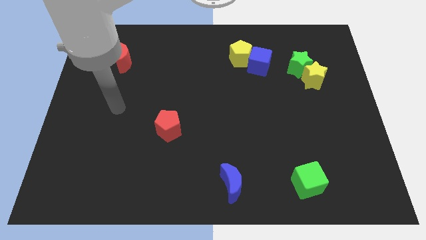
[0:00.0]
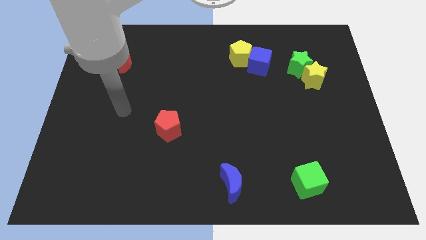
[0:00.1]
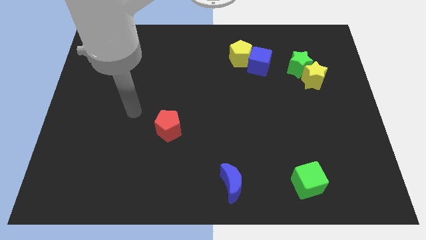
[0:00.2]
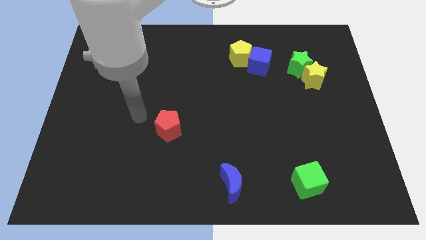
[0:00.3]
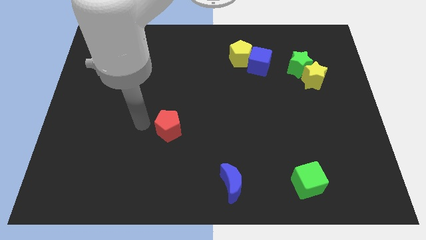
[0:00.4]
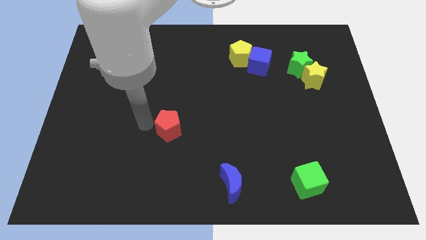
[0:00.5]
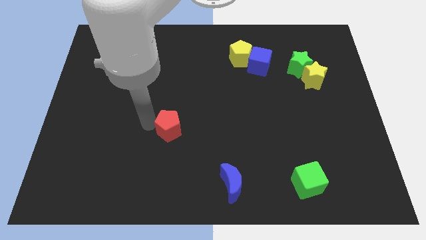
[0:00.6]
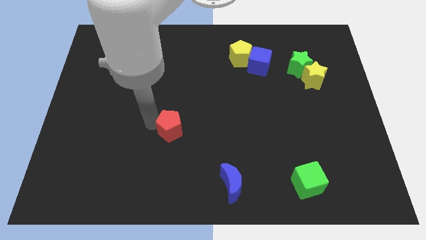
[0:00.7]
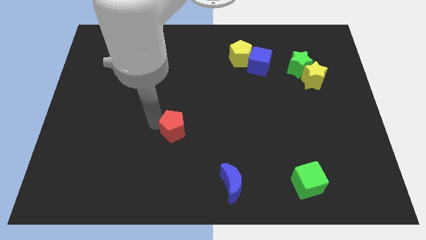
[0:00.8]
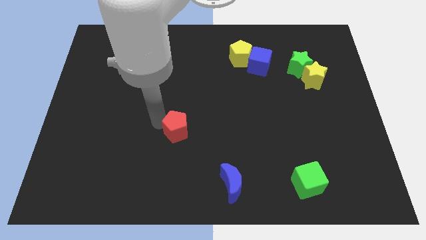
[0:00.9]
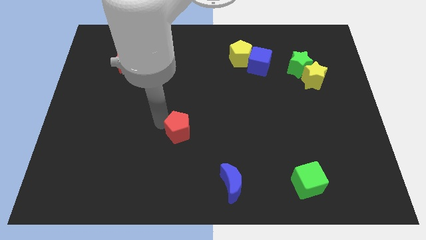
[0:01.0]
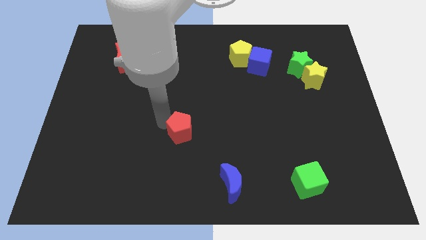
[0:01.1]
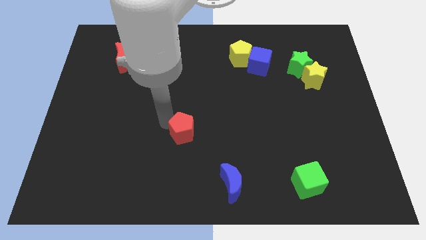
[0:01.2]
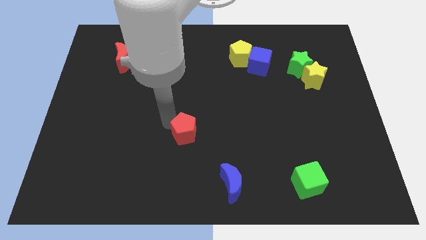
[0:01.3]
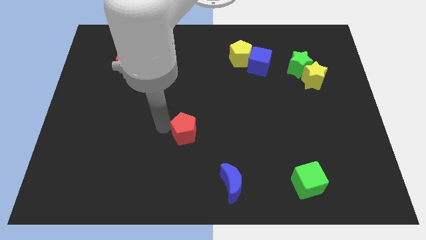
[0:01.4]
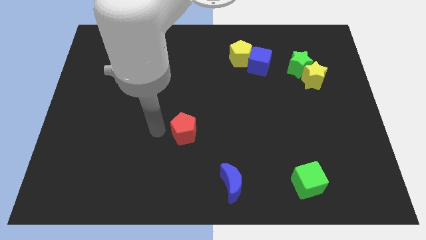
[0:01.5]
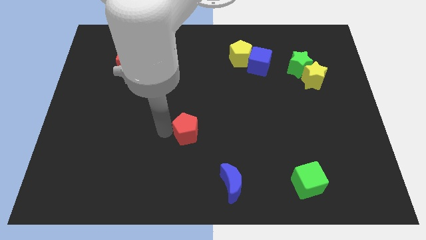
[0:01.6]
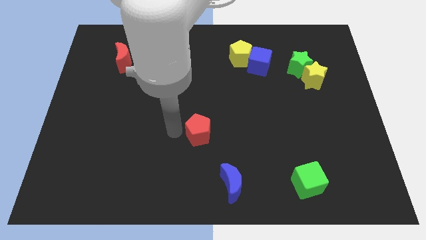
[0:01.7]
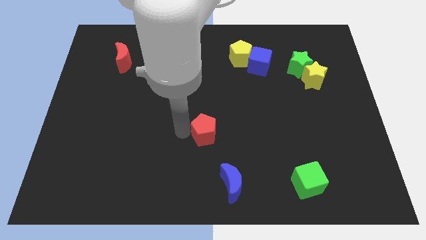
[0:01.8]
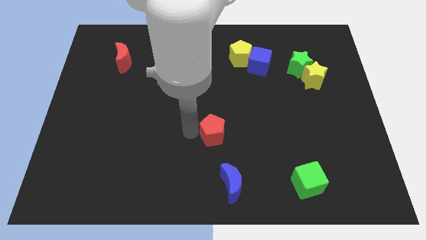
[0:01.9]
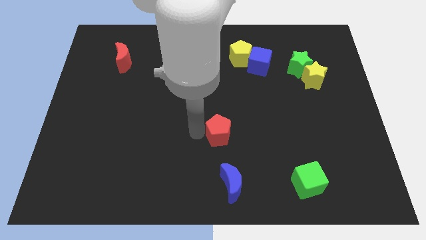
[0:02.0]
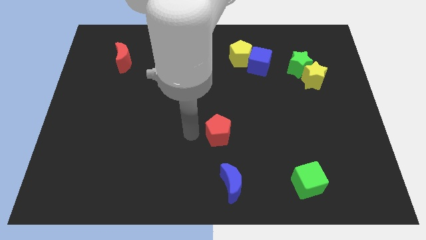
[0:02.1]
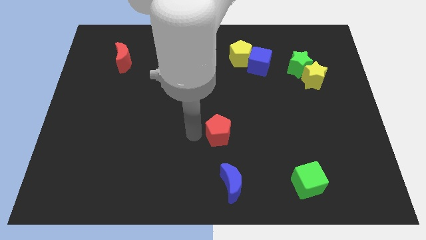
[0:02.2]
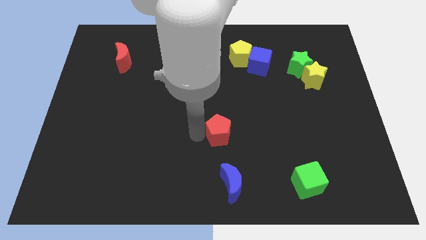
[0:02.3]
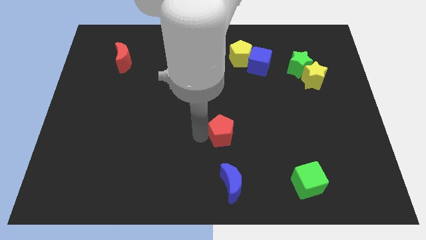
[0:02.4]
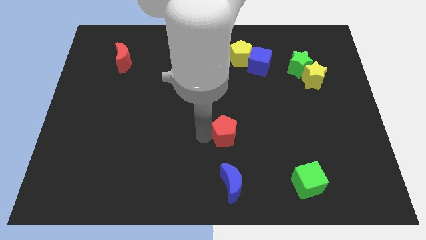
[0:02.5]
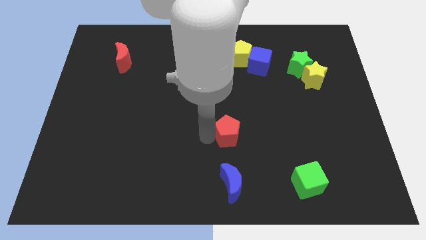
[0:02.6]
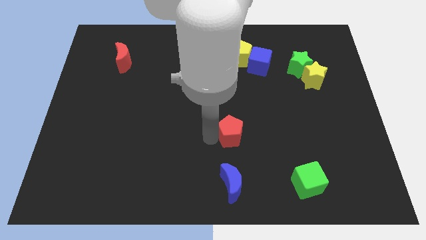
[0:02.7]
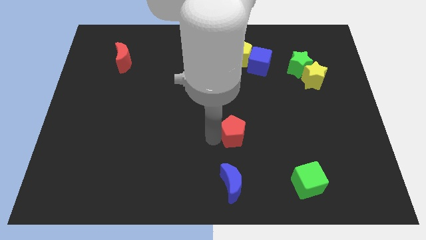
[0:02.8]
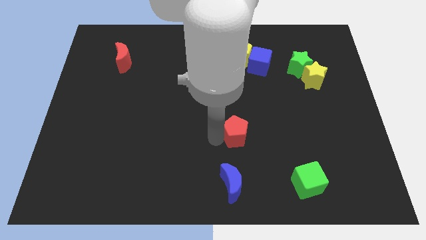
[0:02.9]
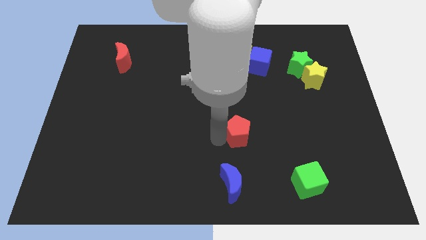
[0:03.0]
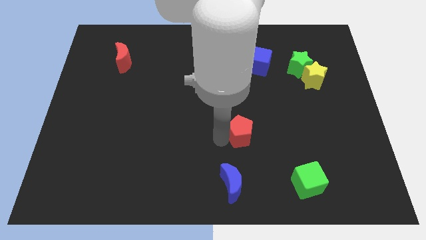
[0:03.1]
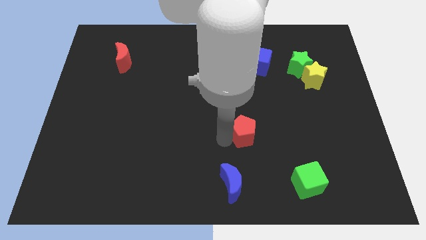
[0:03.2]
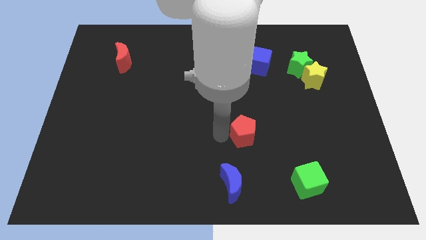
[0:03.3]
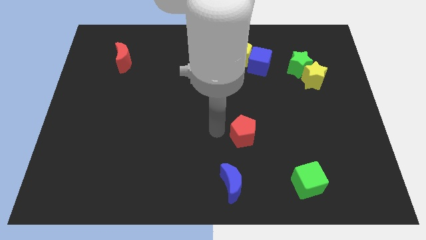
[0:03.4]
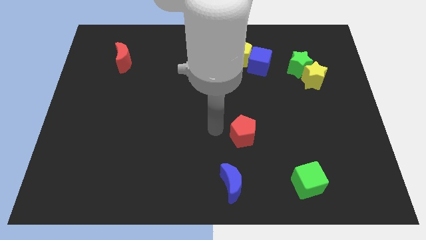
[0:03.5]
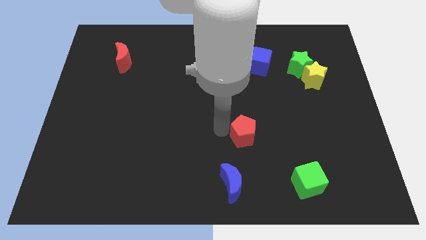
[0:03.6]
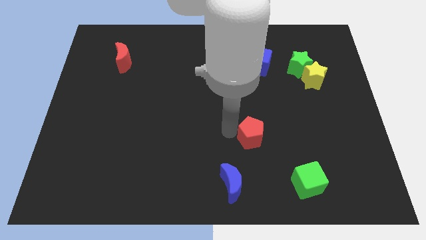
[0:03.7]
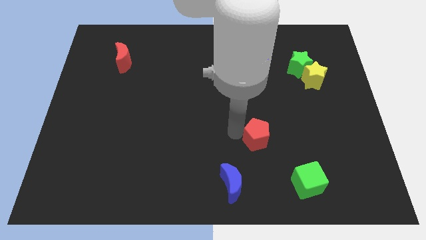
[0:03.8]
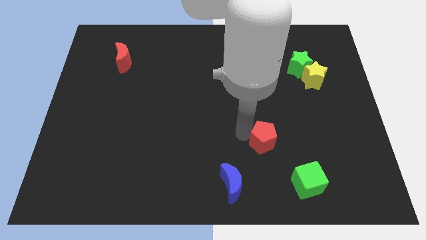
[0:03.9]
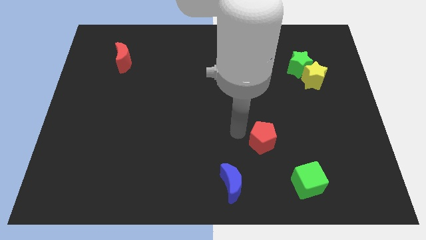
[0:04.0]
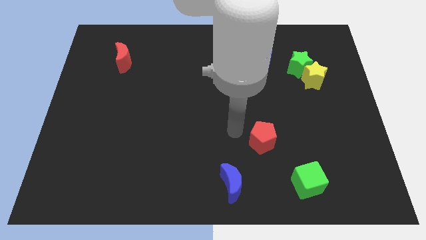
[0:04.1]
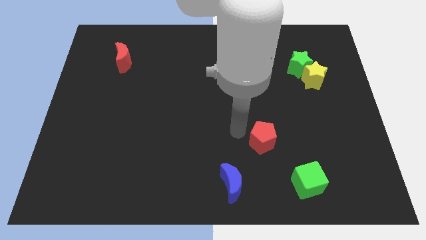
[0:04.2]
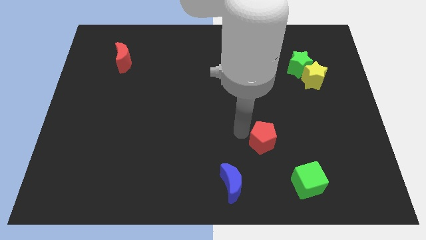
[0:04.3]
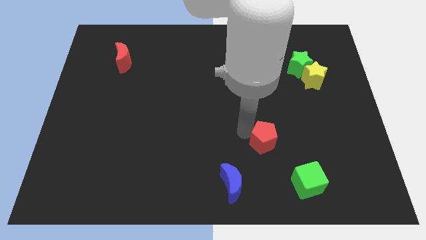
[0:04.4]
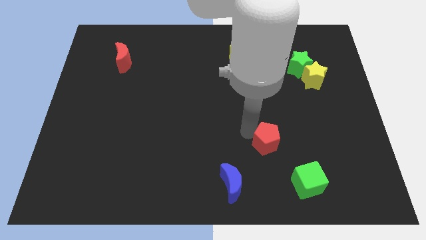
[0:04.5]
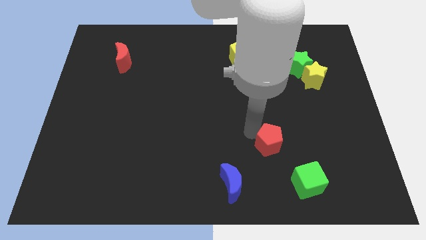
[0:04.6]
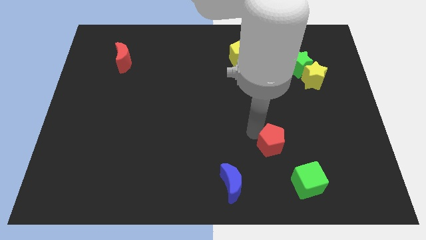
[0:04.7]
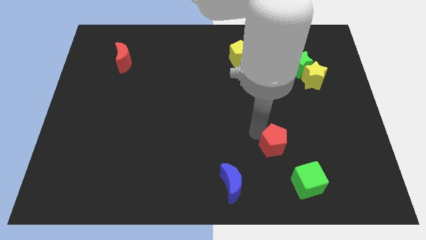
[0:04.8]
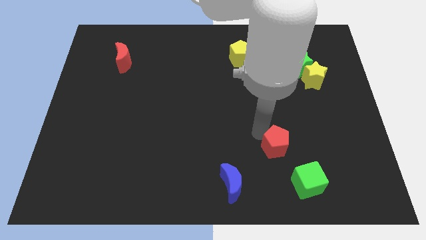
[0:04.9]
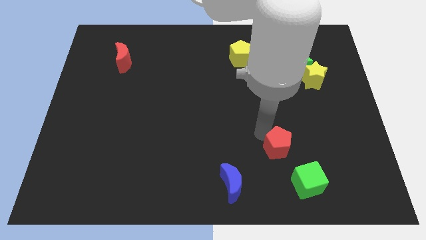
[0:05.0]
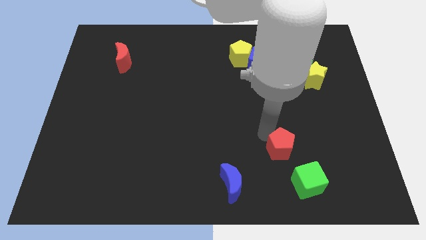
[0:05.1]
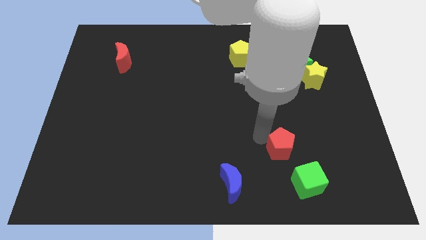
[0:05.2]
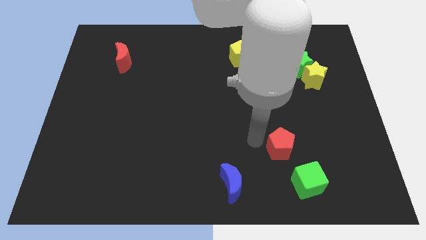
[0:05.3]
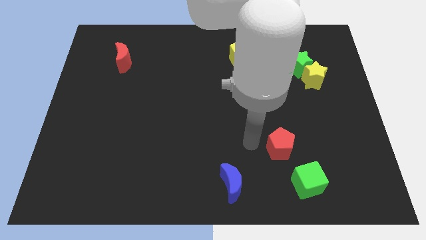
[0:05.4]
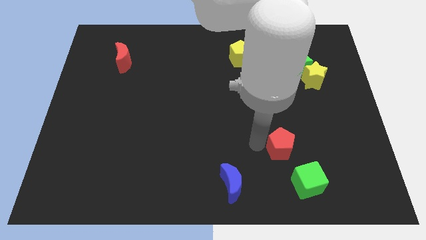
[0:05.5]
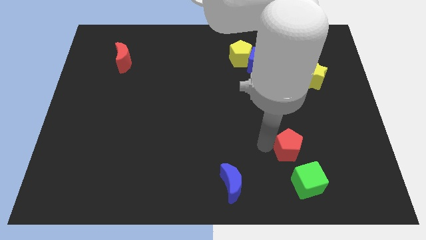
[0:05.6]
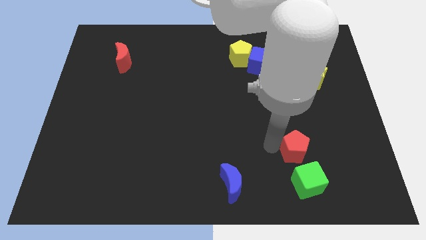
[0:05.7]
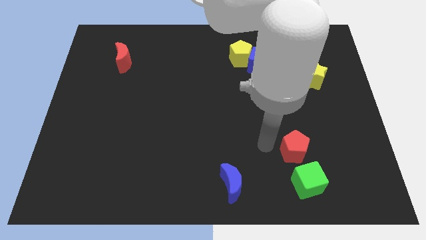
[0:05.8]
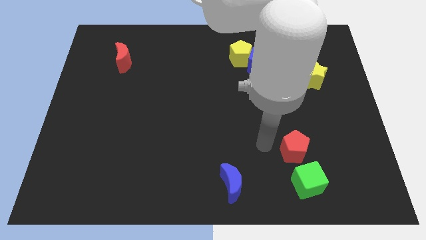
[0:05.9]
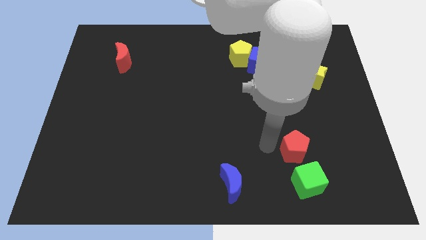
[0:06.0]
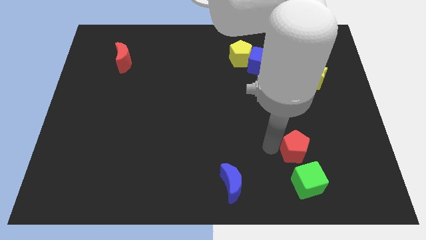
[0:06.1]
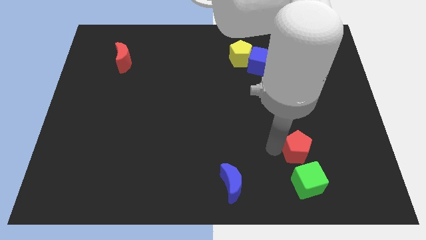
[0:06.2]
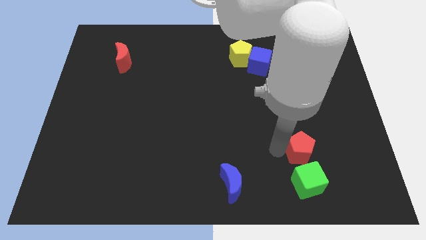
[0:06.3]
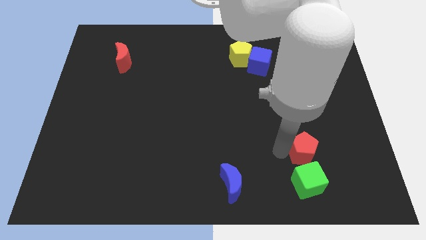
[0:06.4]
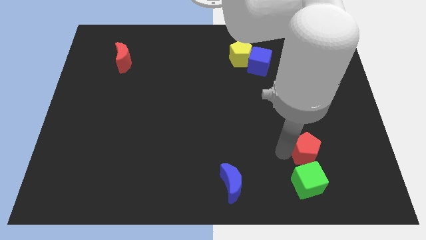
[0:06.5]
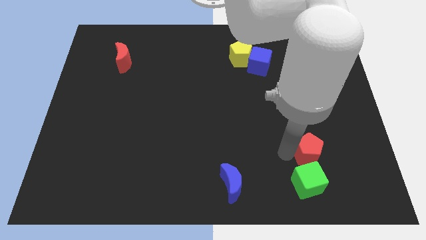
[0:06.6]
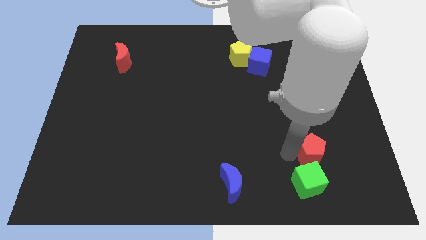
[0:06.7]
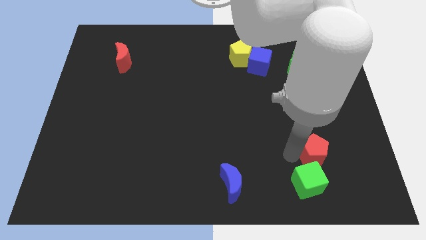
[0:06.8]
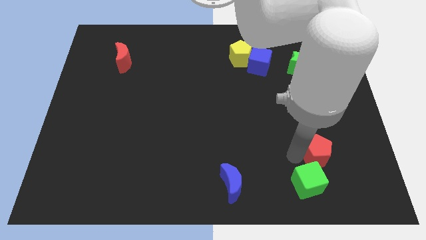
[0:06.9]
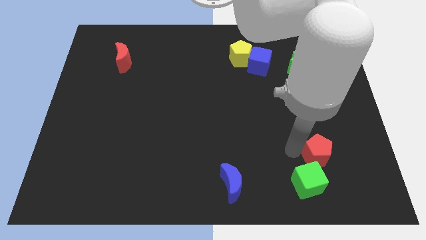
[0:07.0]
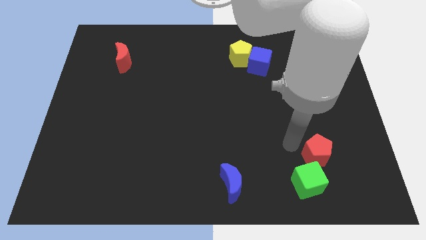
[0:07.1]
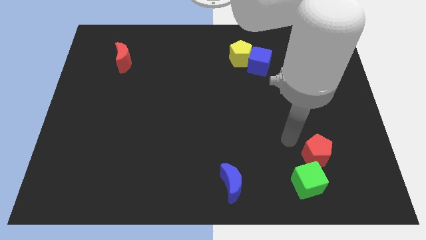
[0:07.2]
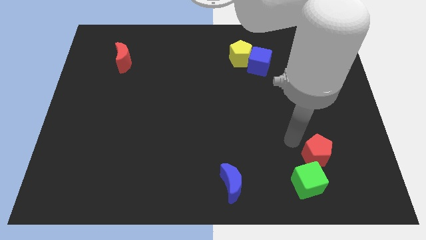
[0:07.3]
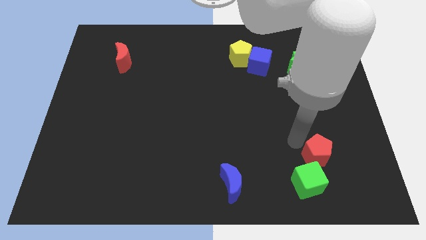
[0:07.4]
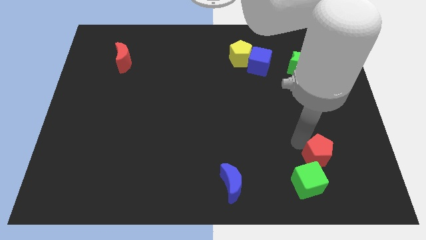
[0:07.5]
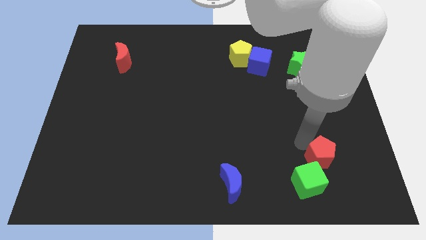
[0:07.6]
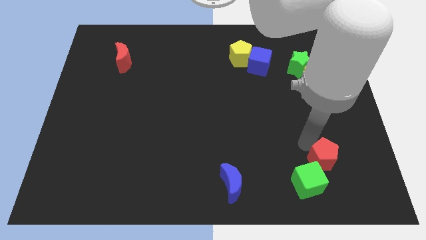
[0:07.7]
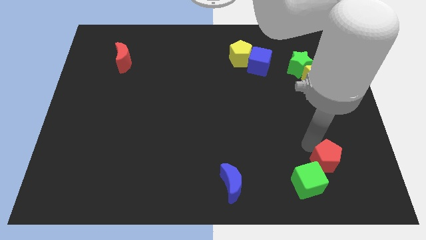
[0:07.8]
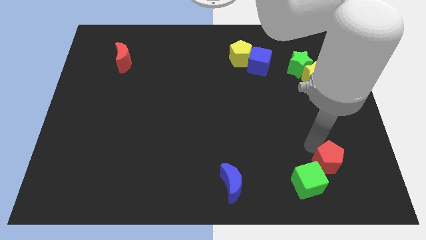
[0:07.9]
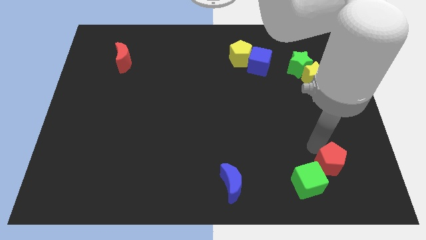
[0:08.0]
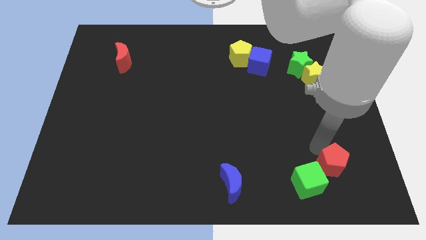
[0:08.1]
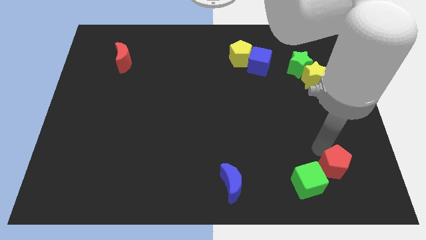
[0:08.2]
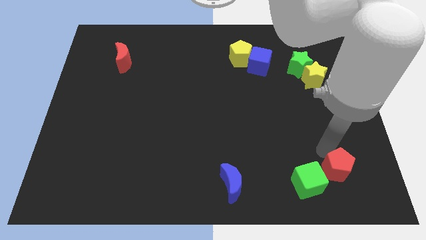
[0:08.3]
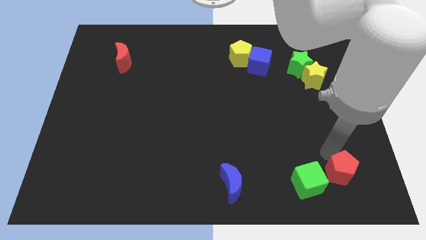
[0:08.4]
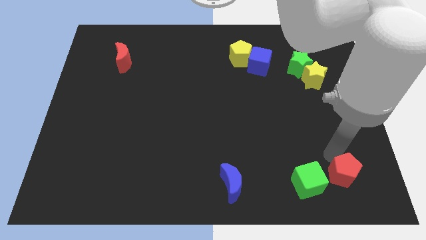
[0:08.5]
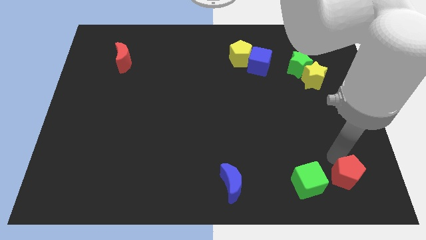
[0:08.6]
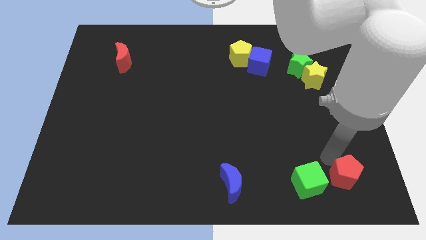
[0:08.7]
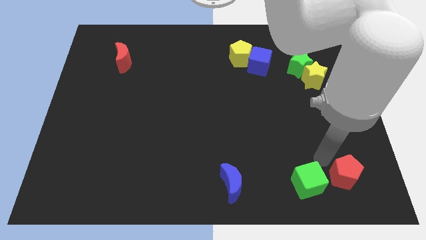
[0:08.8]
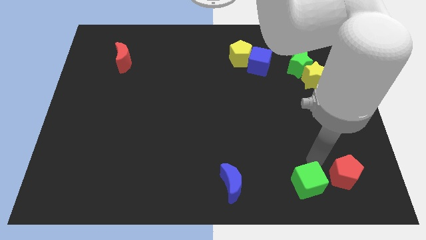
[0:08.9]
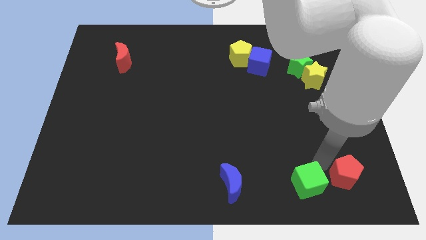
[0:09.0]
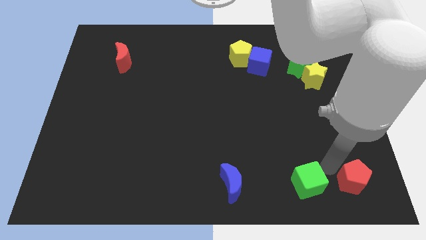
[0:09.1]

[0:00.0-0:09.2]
move the red pentagon to the bottom right of the board
